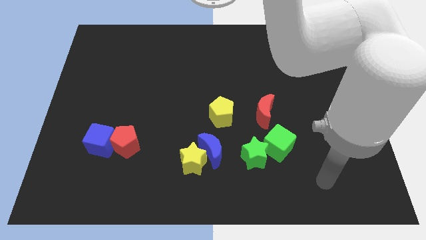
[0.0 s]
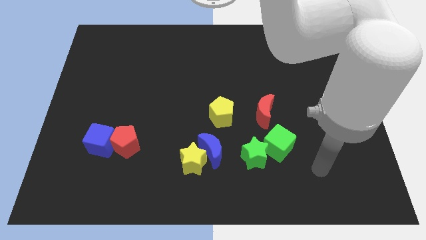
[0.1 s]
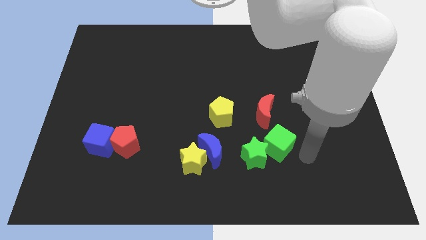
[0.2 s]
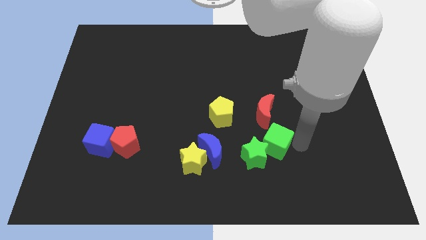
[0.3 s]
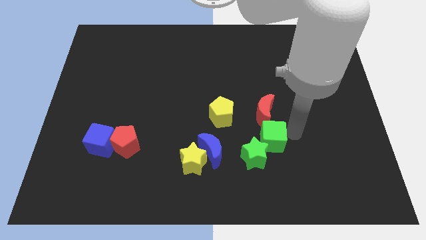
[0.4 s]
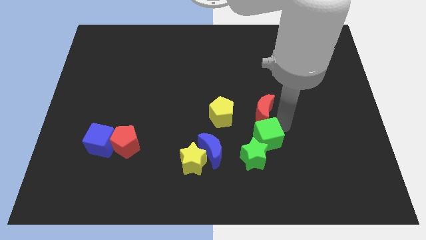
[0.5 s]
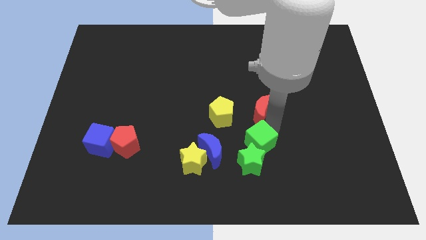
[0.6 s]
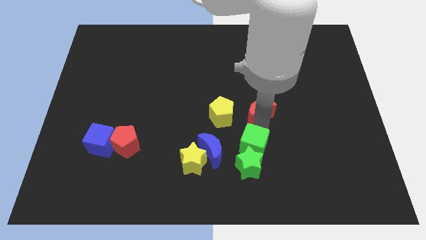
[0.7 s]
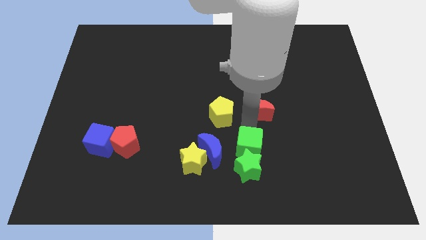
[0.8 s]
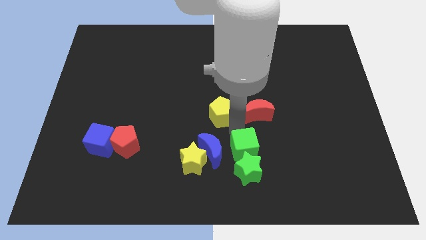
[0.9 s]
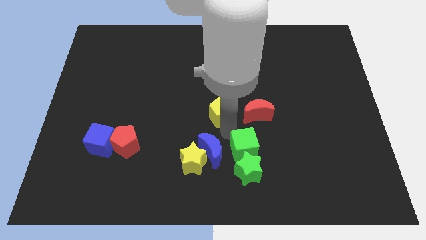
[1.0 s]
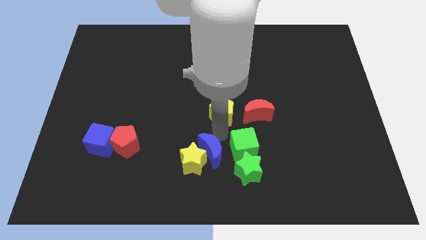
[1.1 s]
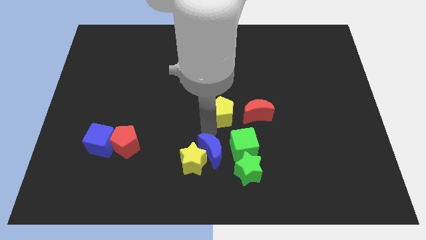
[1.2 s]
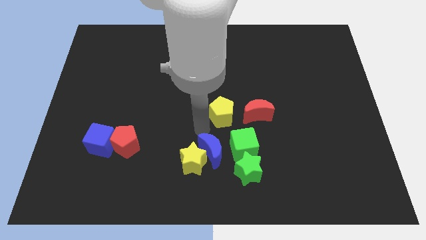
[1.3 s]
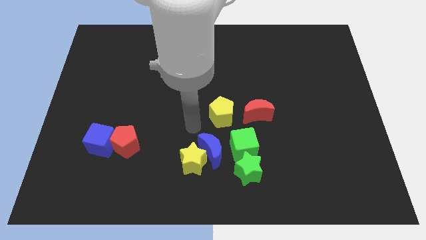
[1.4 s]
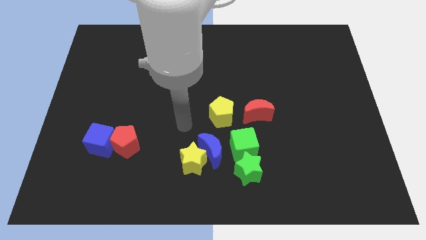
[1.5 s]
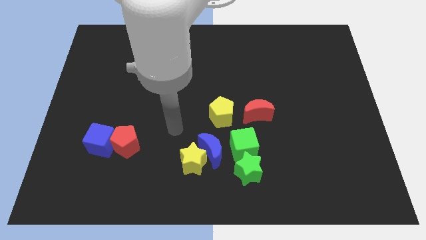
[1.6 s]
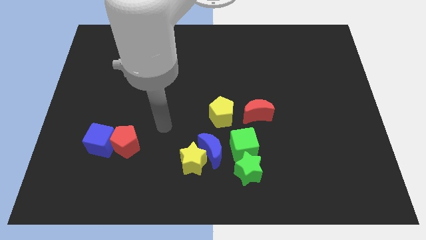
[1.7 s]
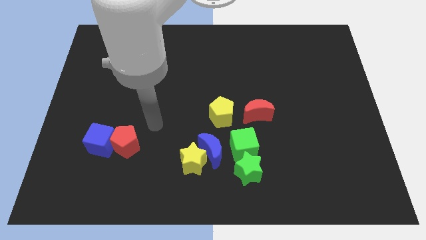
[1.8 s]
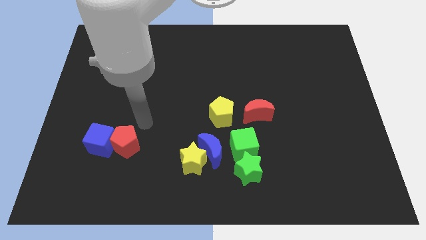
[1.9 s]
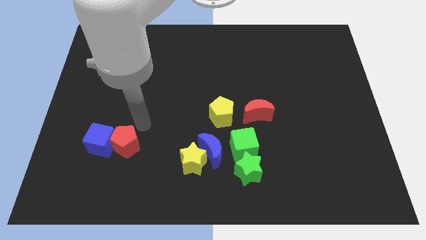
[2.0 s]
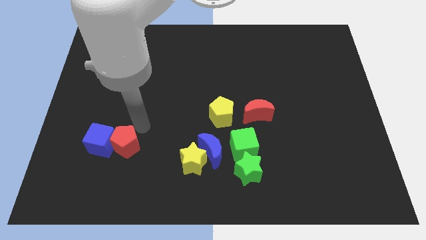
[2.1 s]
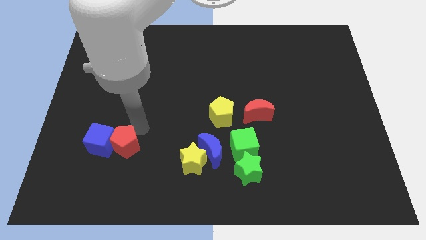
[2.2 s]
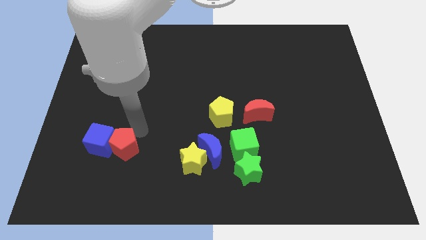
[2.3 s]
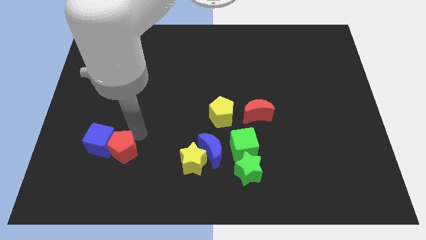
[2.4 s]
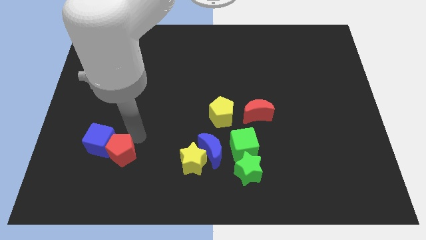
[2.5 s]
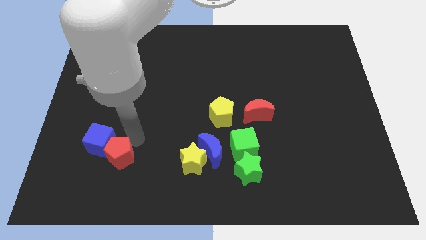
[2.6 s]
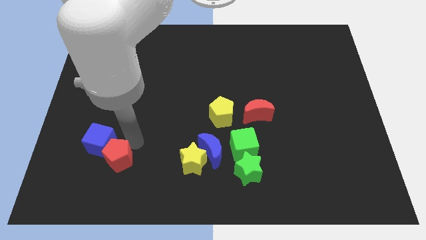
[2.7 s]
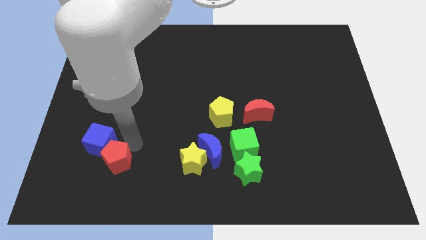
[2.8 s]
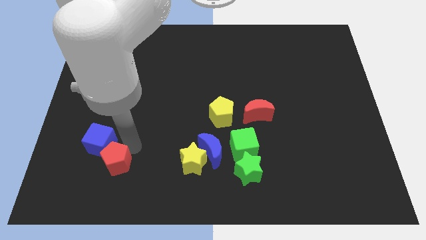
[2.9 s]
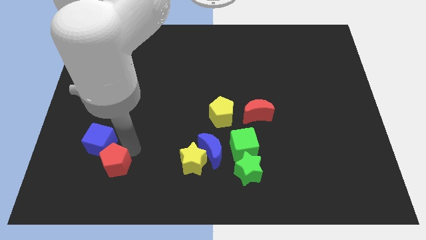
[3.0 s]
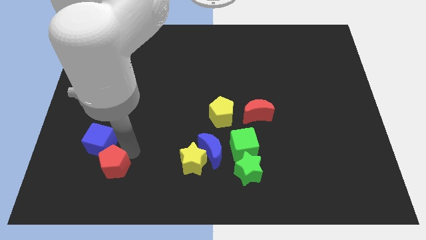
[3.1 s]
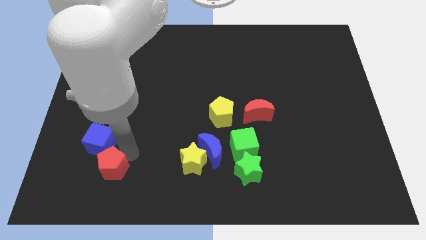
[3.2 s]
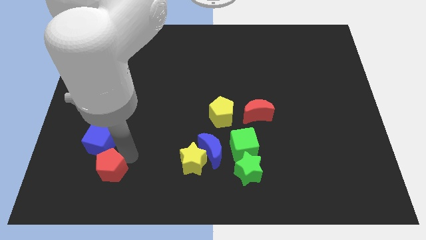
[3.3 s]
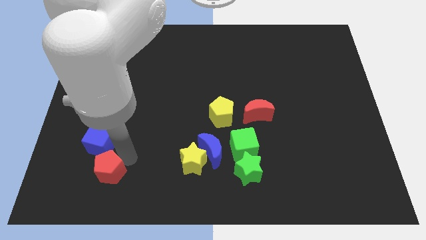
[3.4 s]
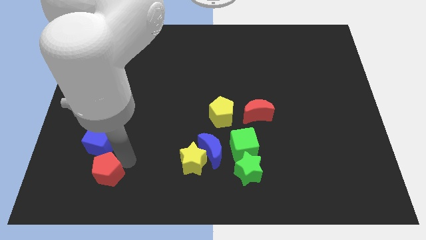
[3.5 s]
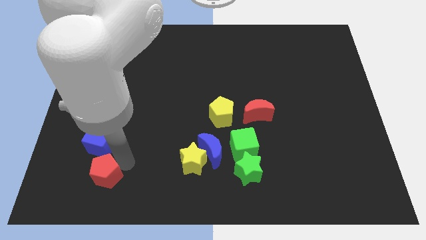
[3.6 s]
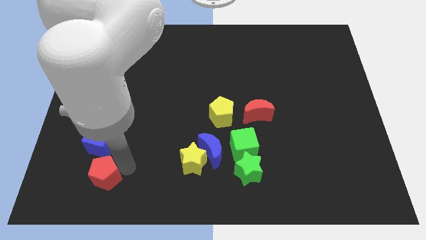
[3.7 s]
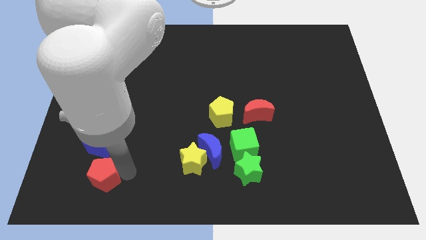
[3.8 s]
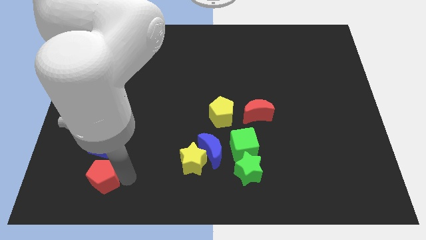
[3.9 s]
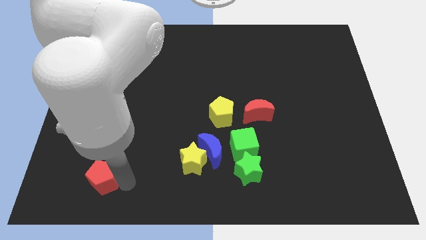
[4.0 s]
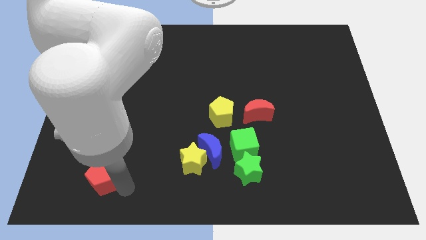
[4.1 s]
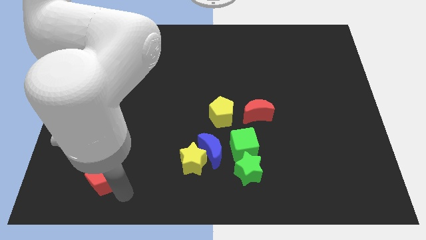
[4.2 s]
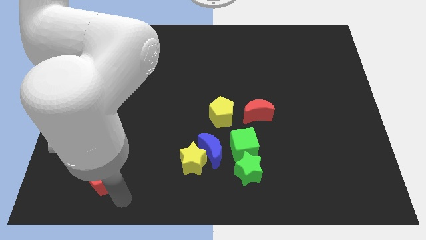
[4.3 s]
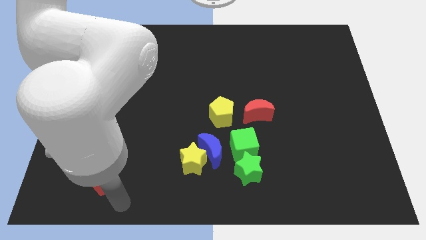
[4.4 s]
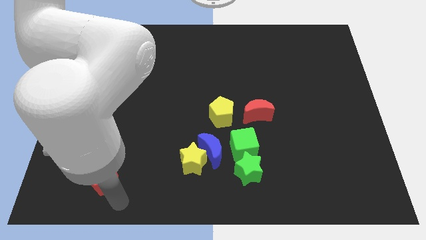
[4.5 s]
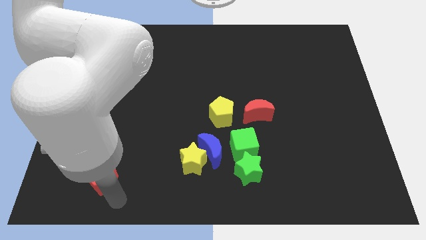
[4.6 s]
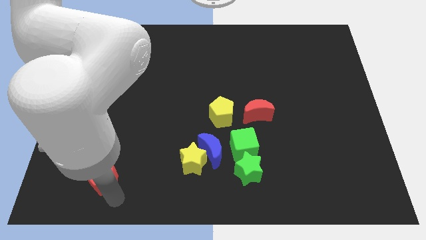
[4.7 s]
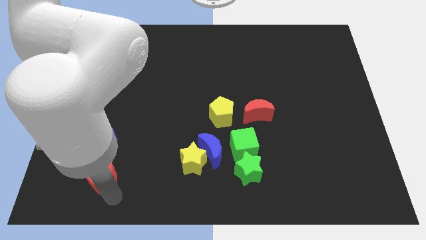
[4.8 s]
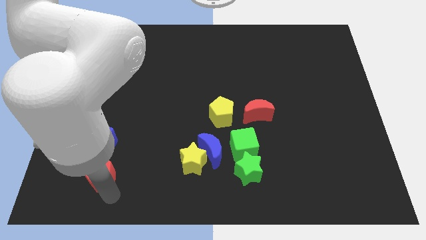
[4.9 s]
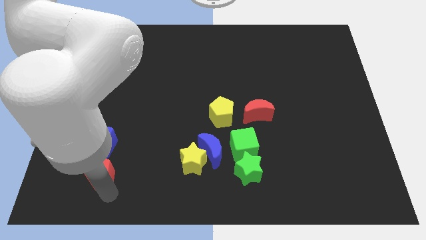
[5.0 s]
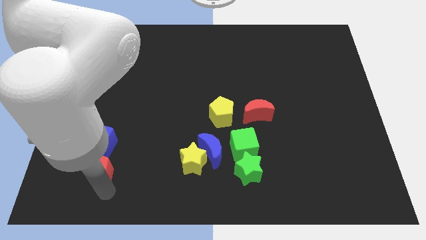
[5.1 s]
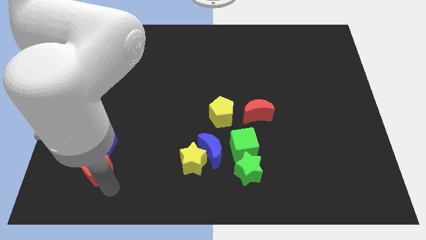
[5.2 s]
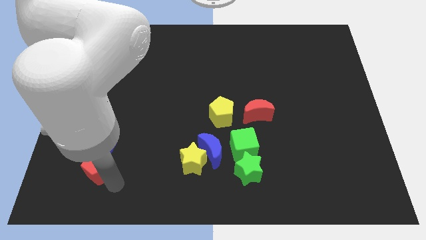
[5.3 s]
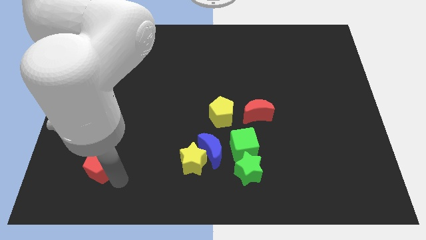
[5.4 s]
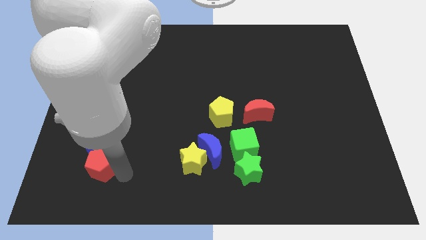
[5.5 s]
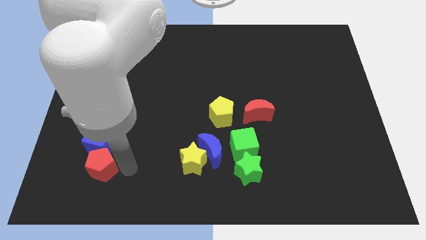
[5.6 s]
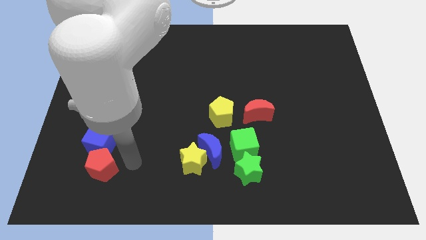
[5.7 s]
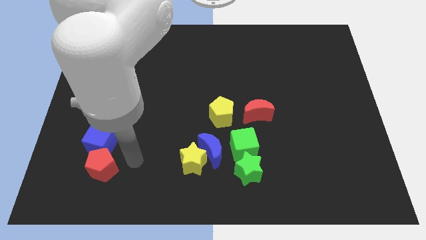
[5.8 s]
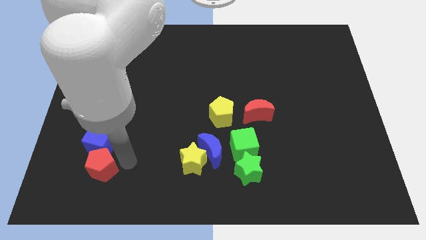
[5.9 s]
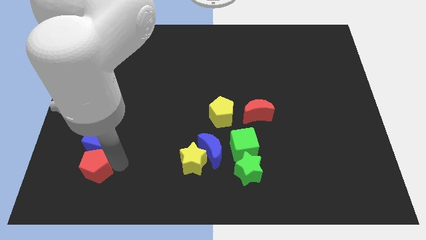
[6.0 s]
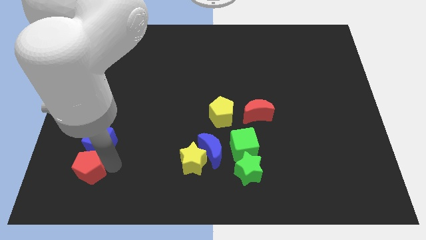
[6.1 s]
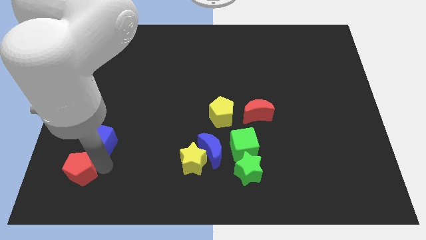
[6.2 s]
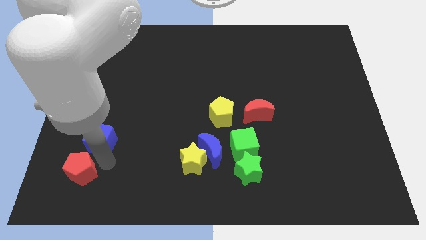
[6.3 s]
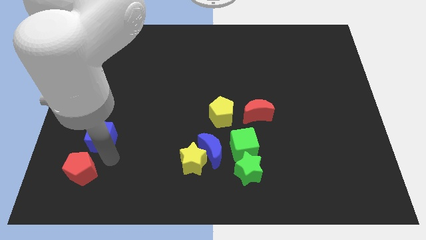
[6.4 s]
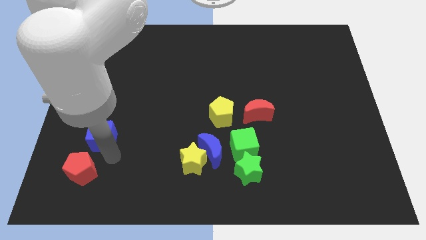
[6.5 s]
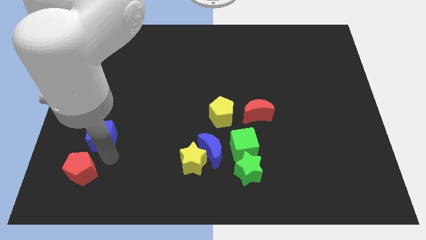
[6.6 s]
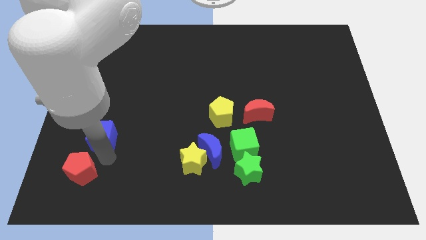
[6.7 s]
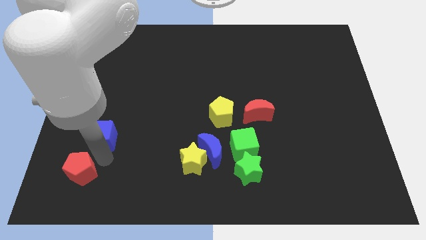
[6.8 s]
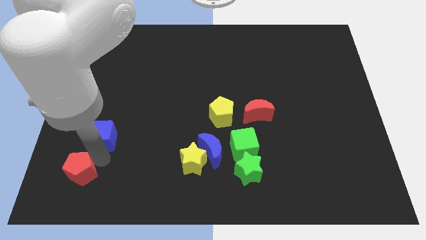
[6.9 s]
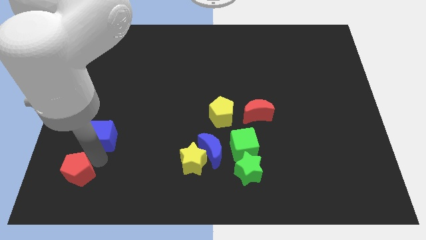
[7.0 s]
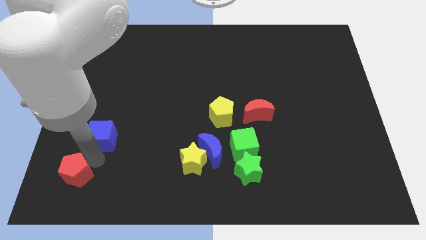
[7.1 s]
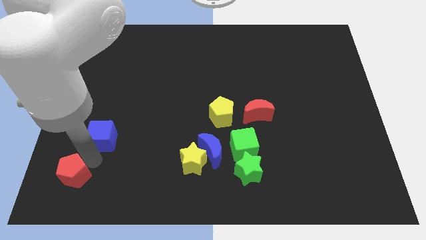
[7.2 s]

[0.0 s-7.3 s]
move the red pentagon to the bottom left corner
